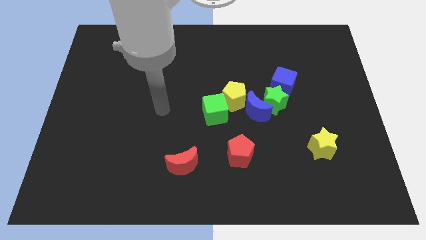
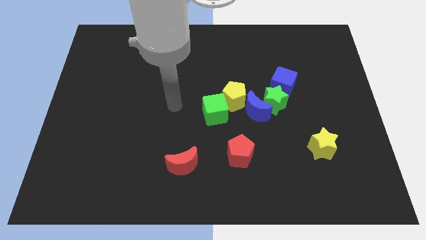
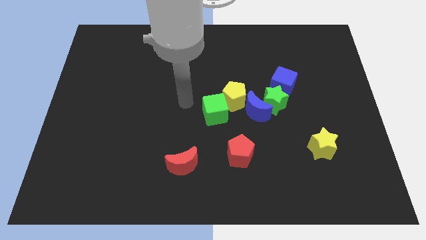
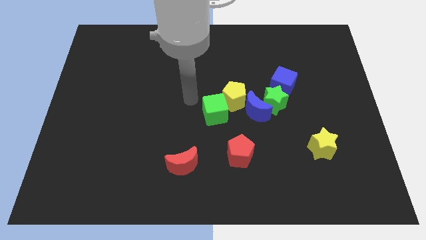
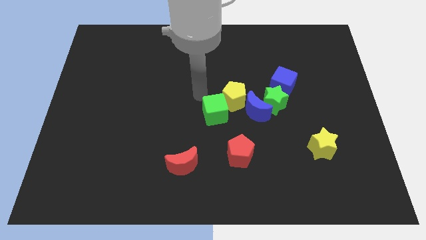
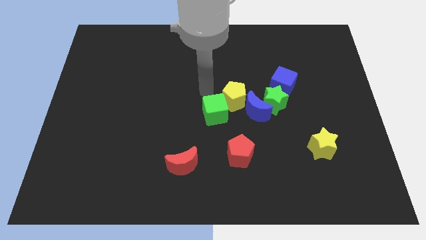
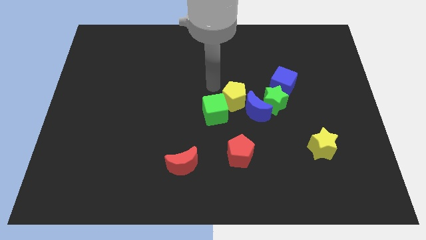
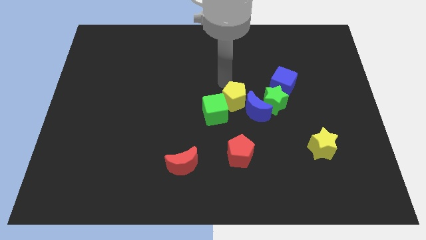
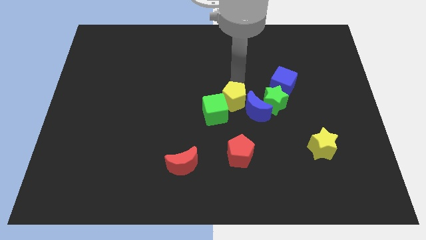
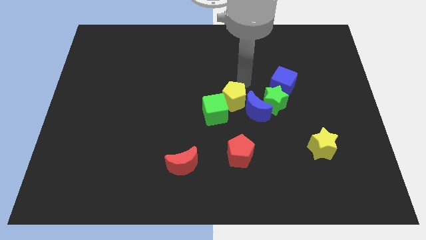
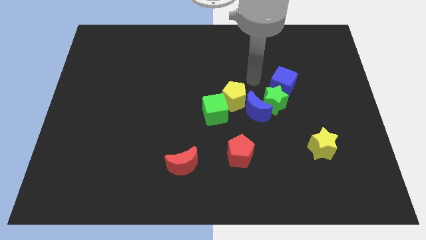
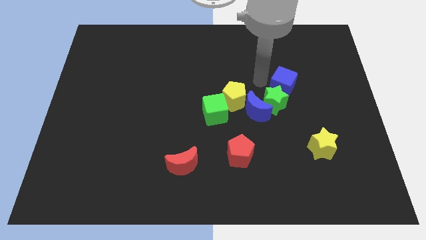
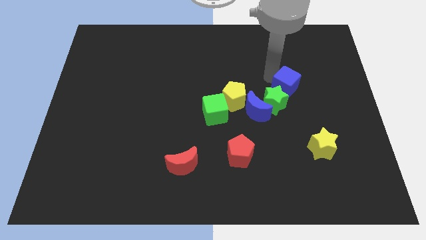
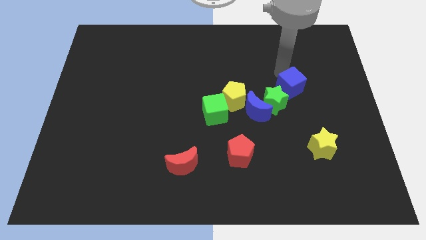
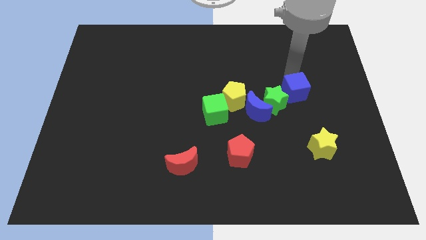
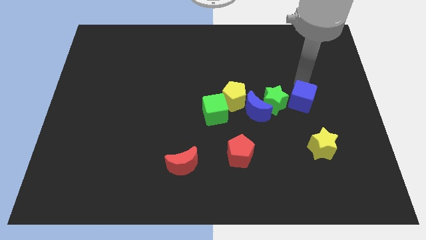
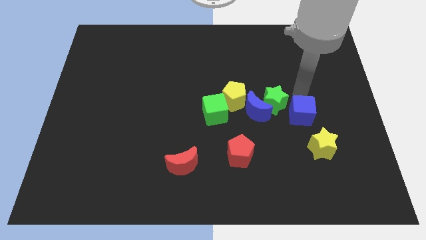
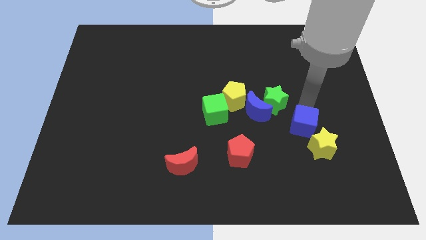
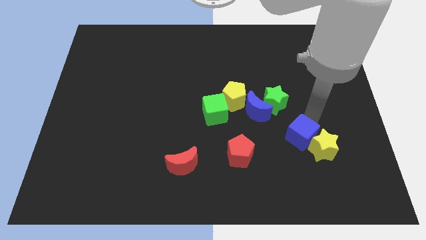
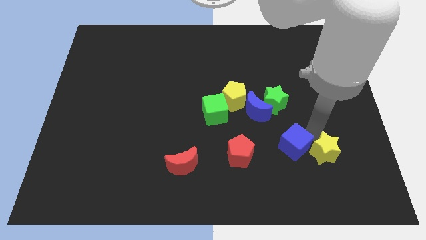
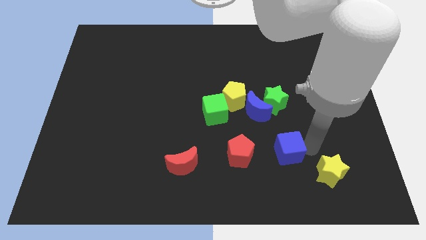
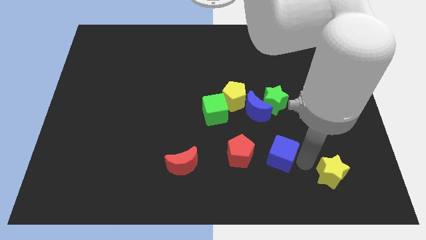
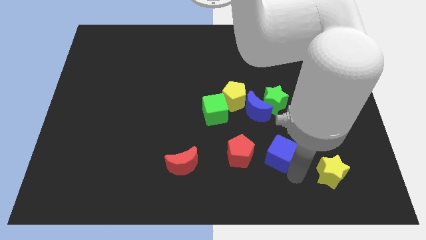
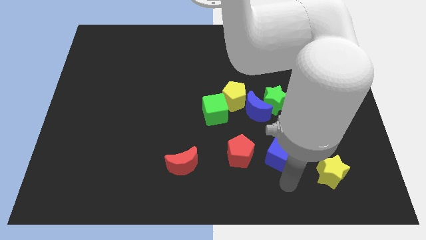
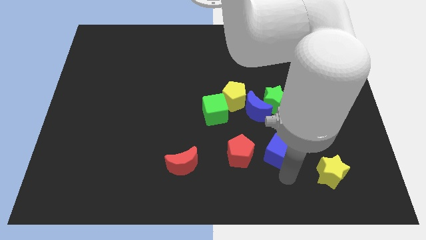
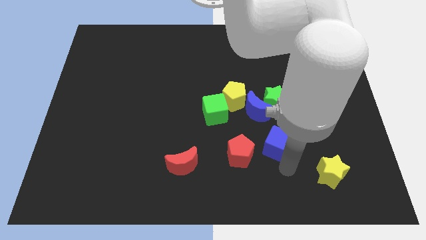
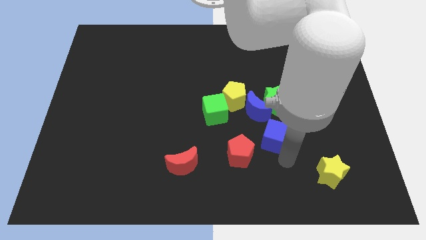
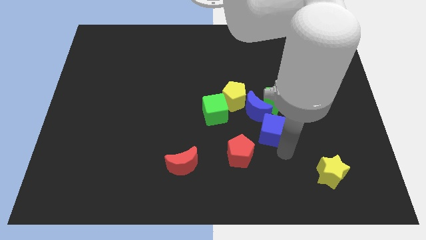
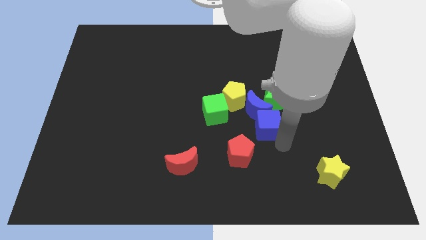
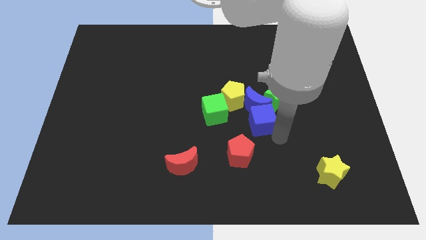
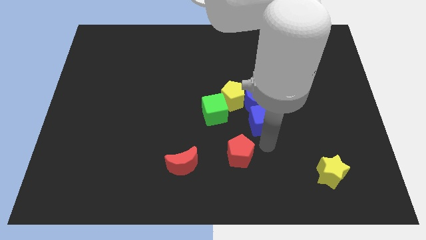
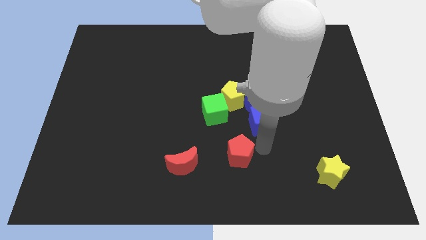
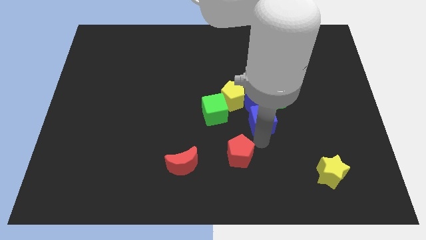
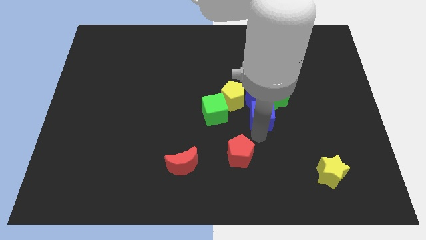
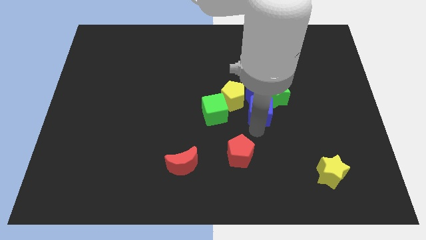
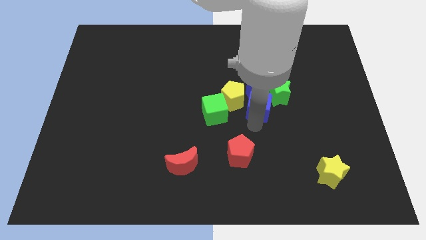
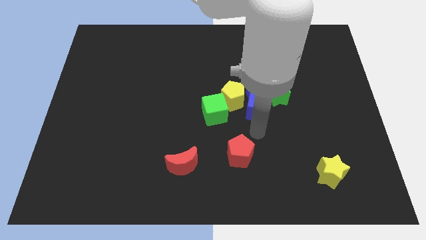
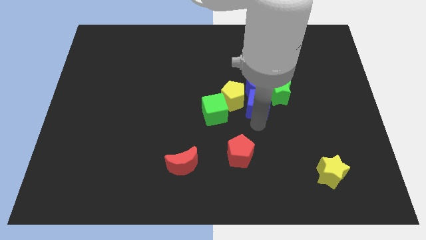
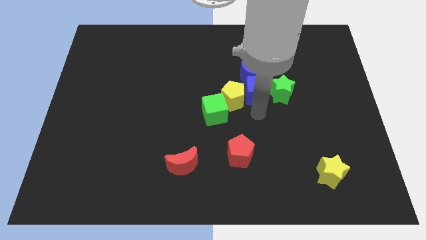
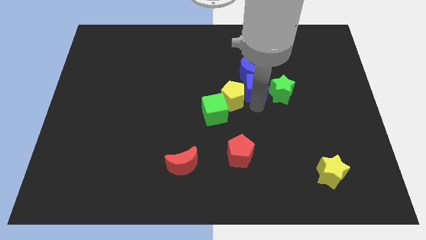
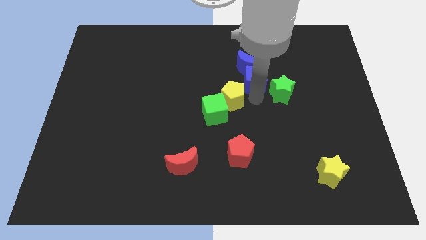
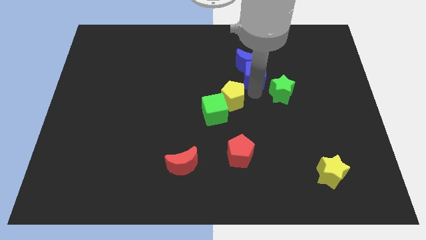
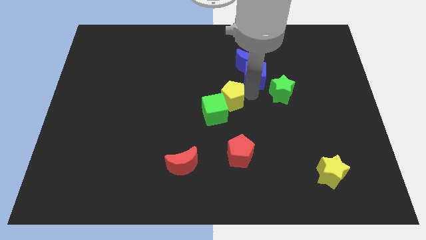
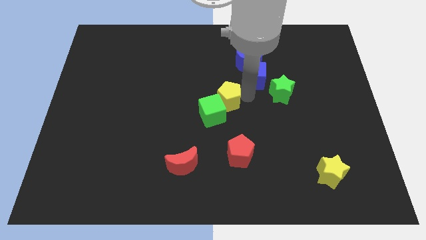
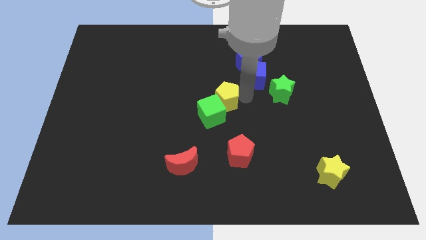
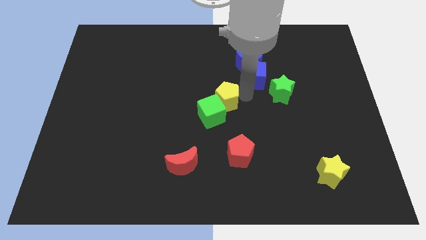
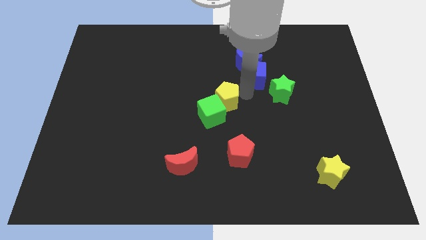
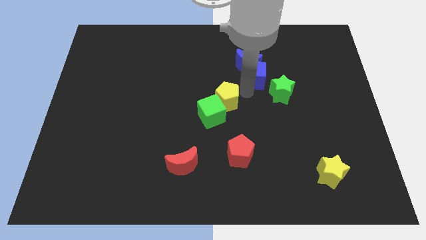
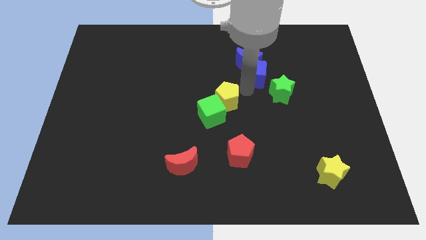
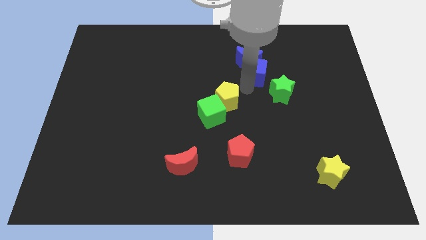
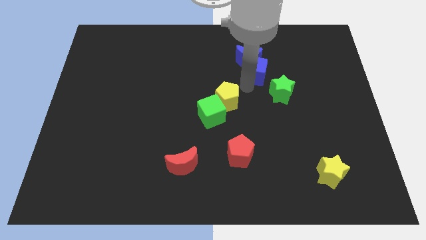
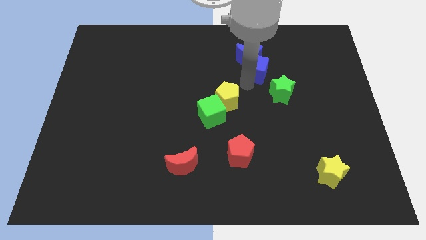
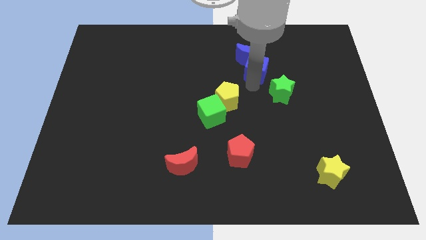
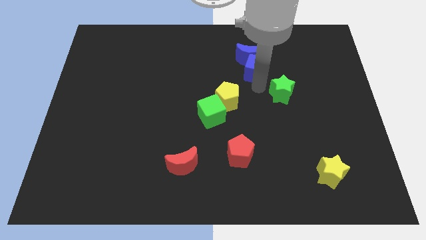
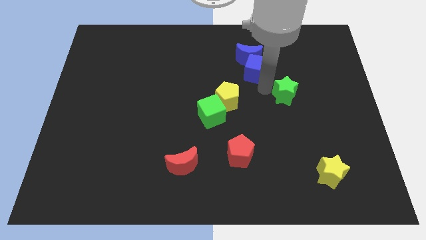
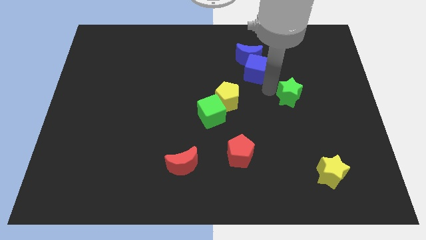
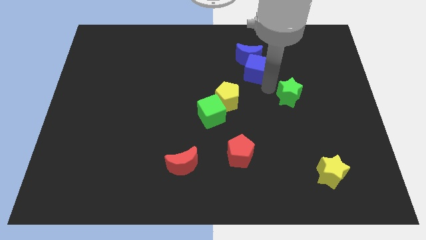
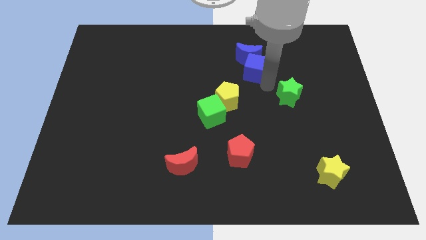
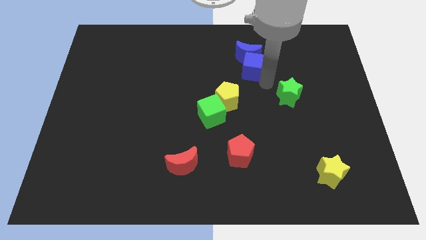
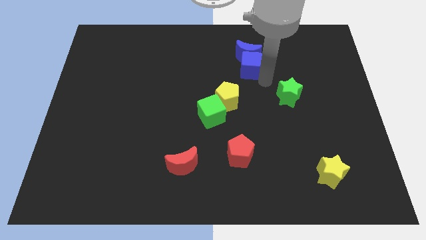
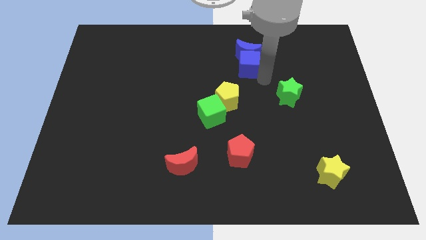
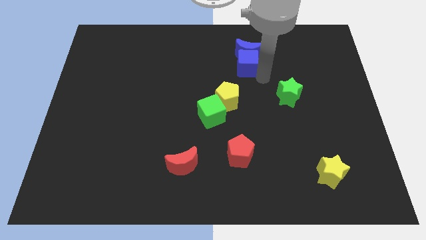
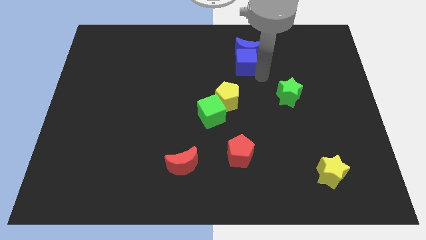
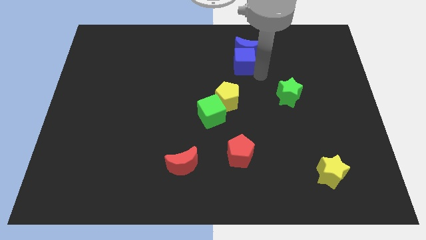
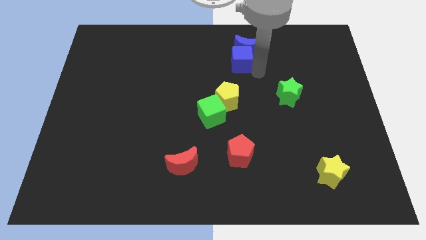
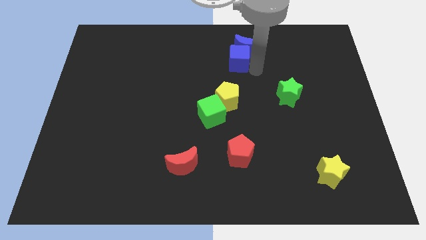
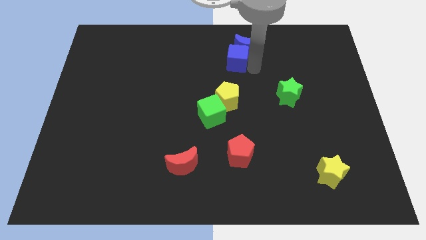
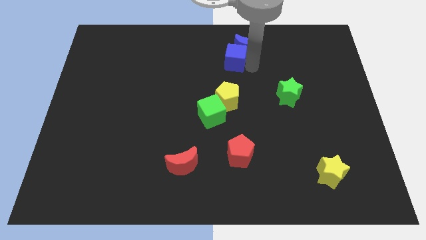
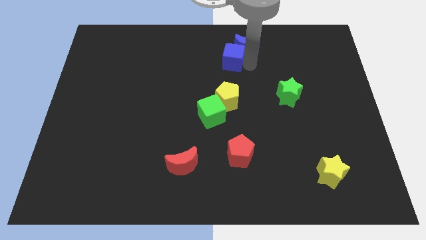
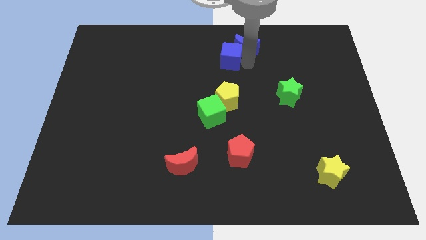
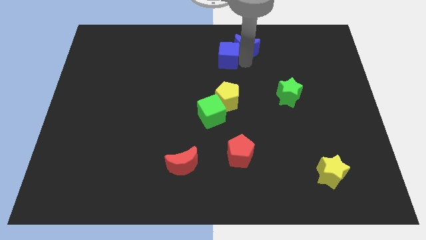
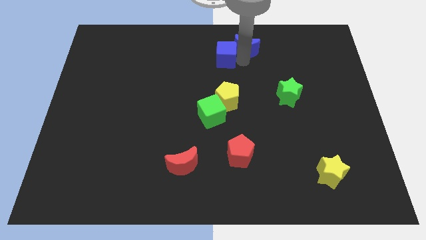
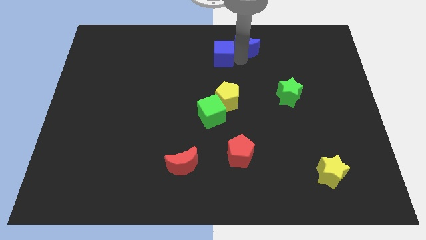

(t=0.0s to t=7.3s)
slide the blue cube to the top side
